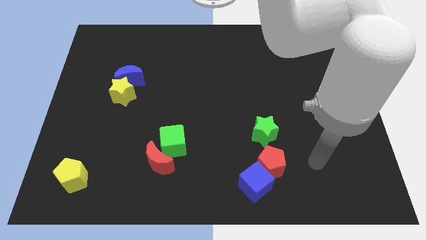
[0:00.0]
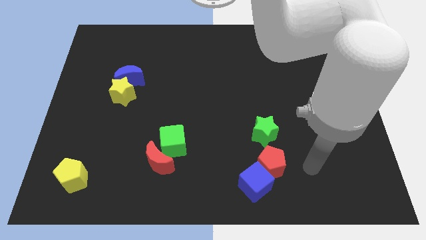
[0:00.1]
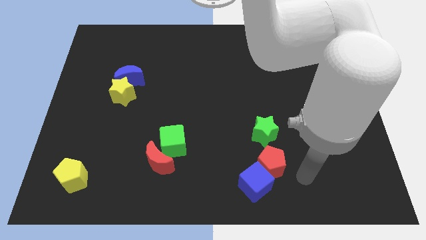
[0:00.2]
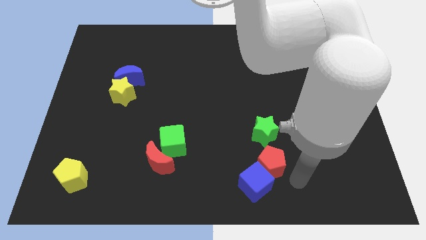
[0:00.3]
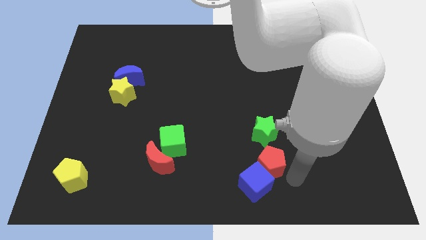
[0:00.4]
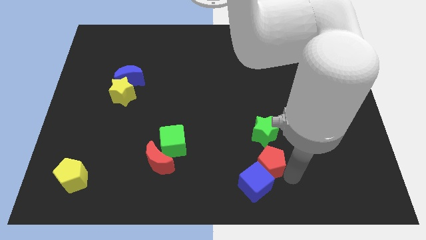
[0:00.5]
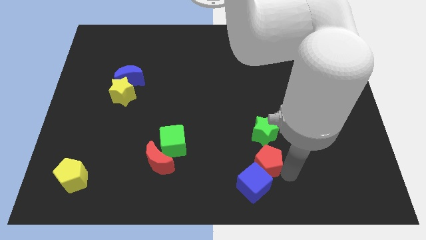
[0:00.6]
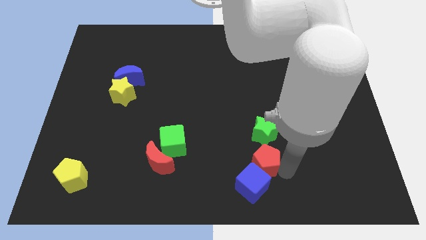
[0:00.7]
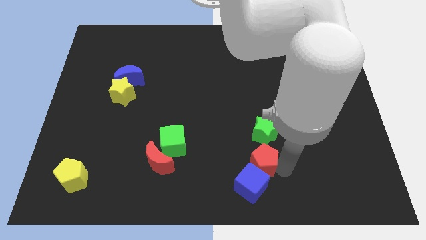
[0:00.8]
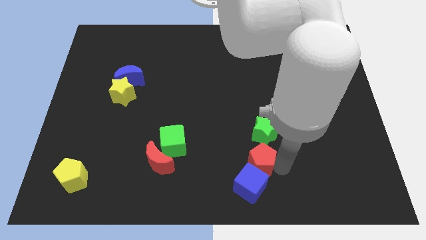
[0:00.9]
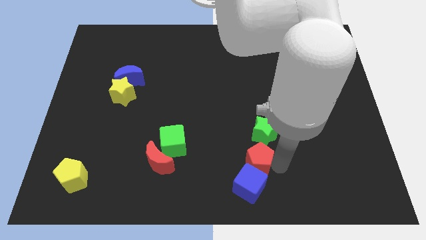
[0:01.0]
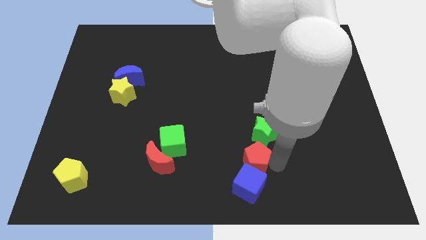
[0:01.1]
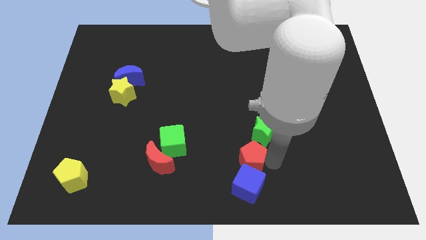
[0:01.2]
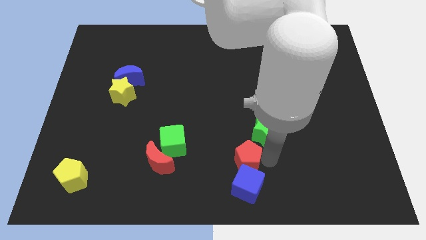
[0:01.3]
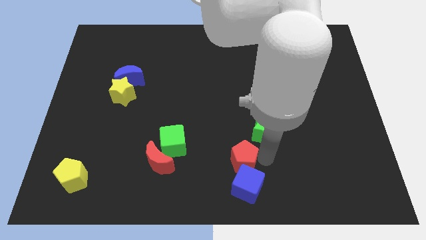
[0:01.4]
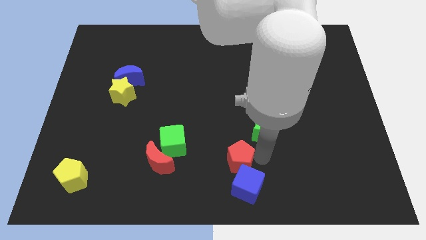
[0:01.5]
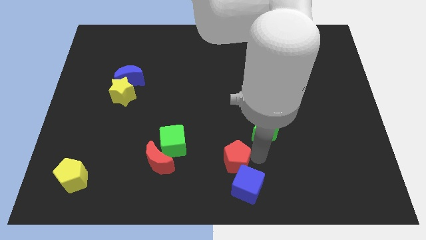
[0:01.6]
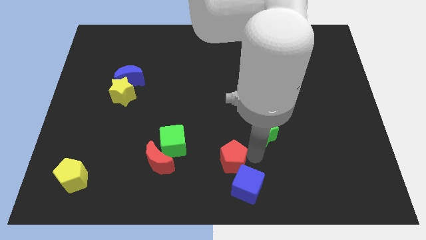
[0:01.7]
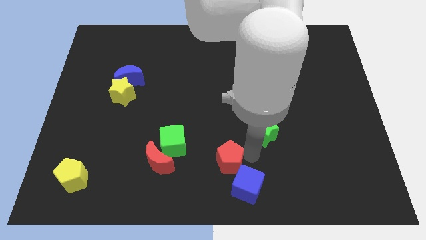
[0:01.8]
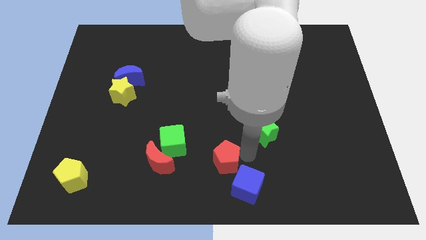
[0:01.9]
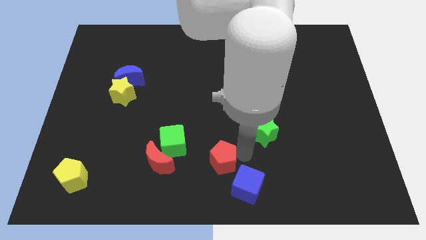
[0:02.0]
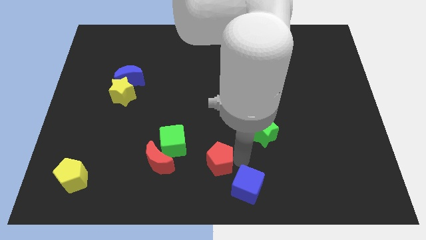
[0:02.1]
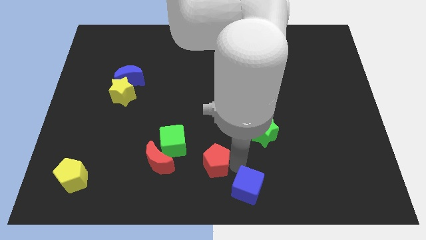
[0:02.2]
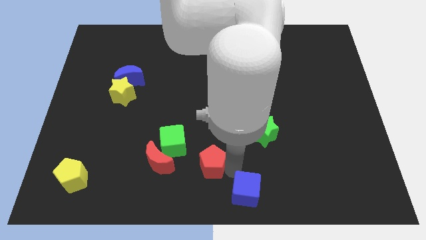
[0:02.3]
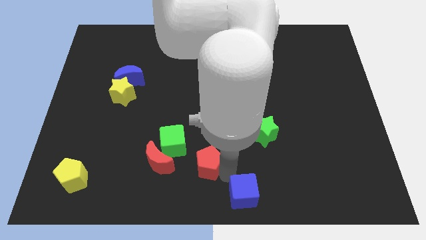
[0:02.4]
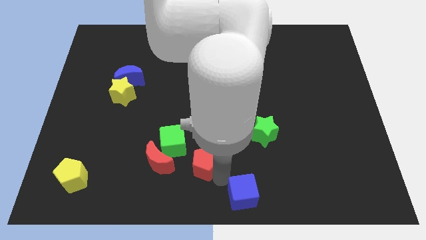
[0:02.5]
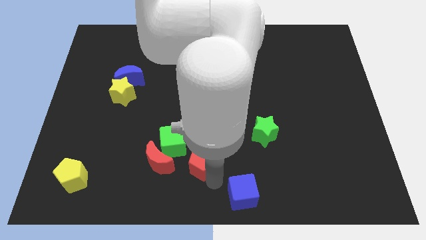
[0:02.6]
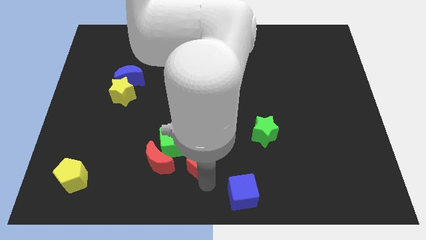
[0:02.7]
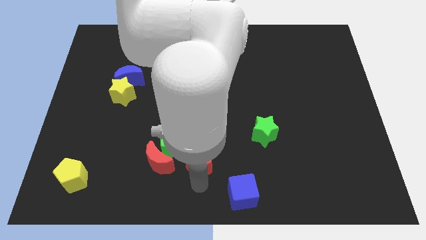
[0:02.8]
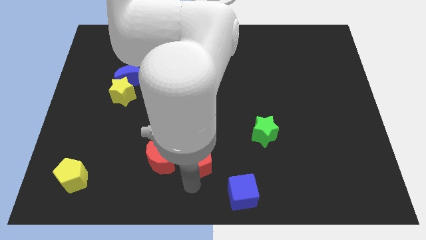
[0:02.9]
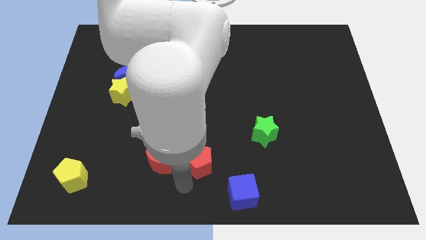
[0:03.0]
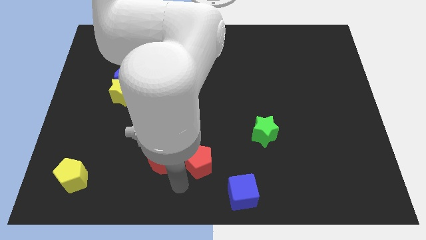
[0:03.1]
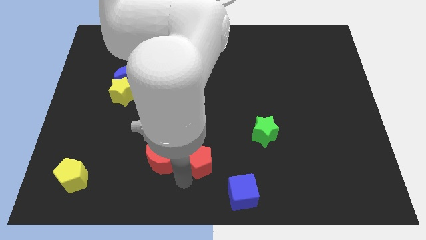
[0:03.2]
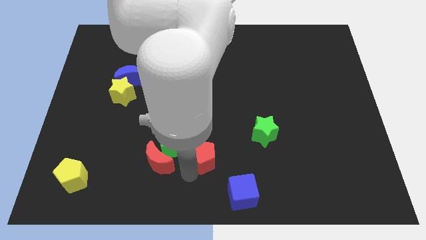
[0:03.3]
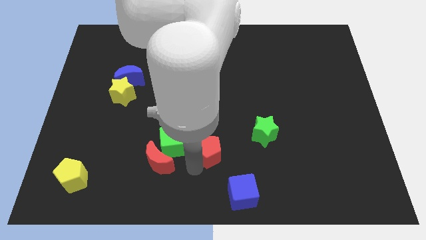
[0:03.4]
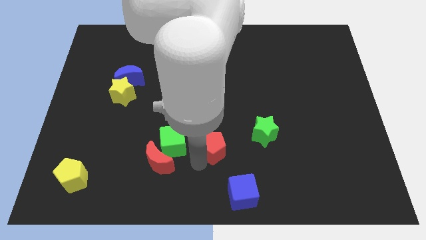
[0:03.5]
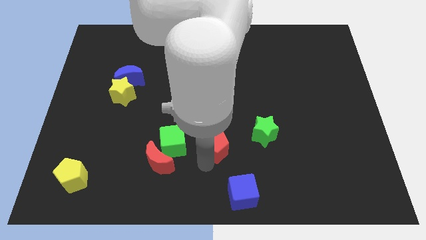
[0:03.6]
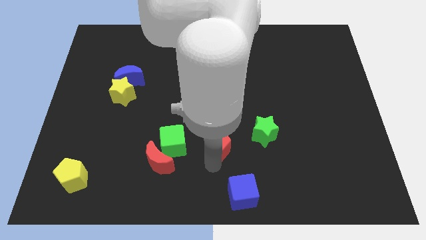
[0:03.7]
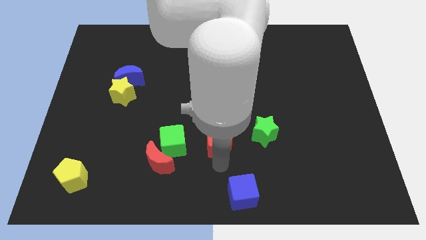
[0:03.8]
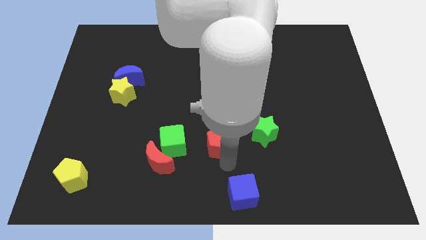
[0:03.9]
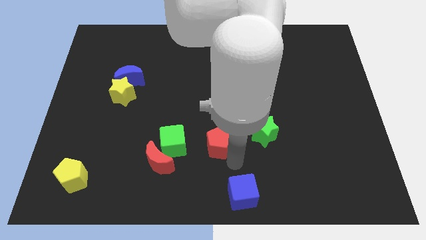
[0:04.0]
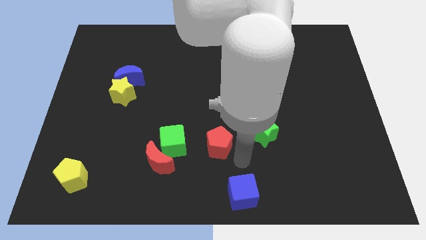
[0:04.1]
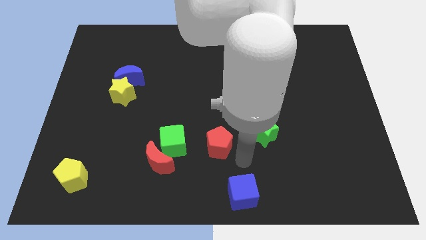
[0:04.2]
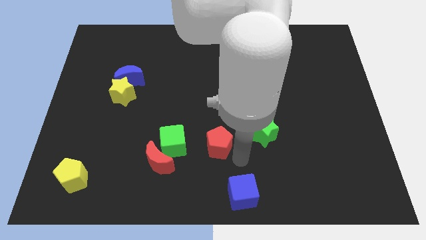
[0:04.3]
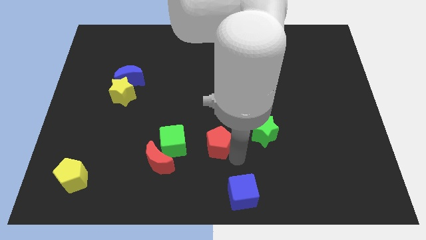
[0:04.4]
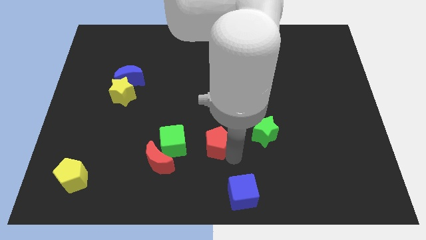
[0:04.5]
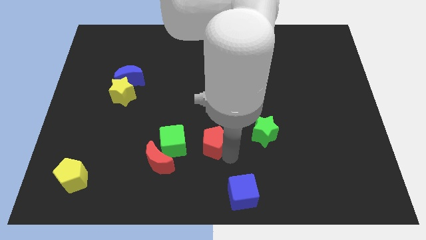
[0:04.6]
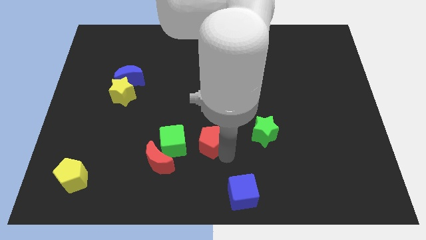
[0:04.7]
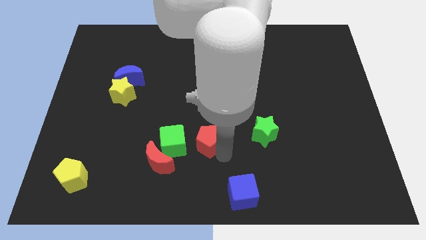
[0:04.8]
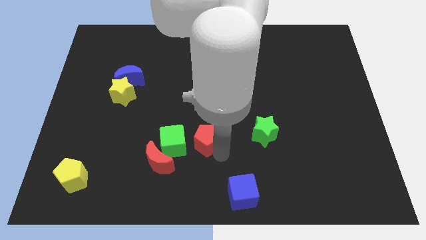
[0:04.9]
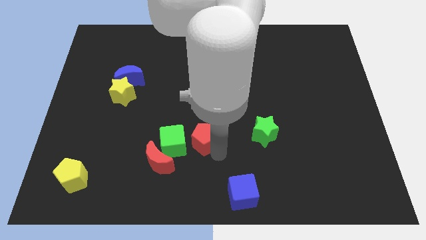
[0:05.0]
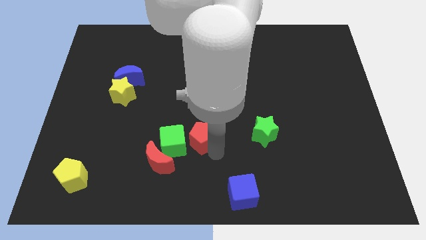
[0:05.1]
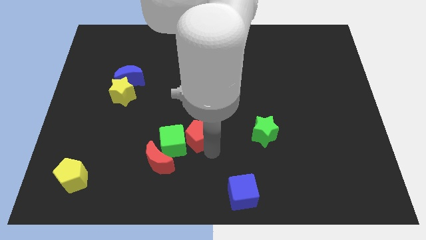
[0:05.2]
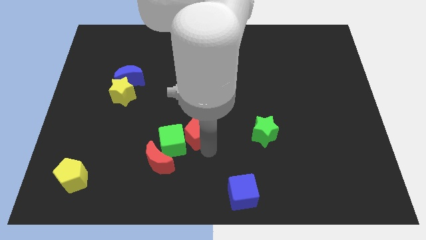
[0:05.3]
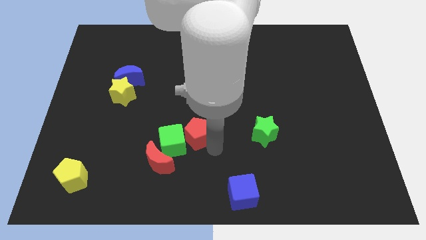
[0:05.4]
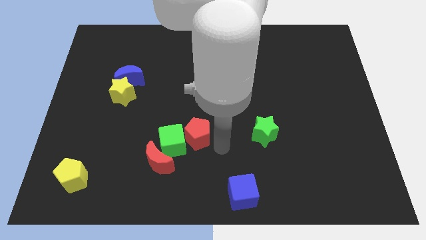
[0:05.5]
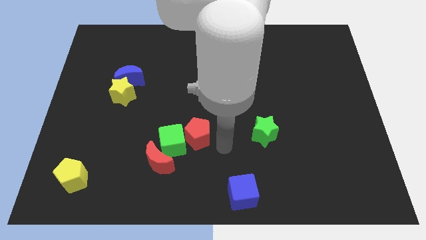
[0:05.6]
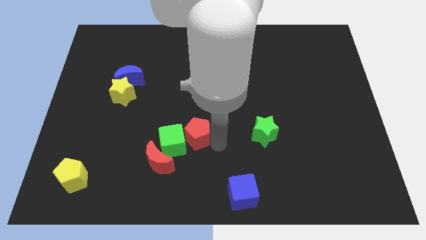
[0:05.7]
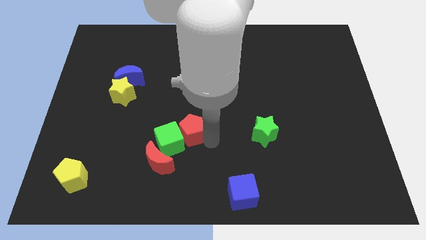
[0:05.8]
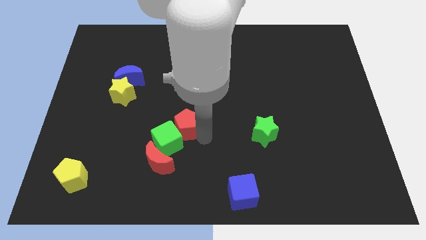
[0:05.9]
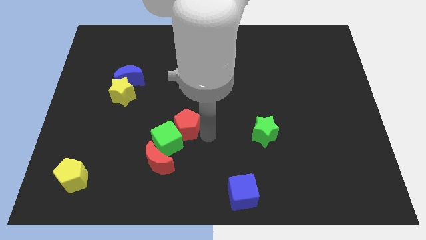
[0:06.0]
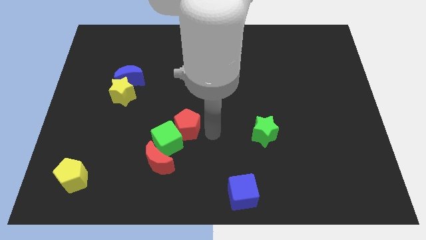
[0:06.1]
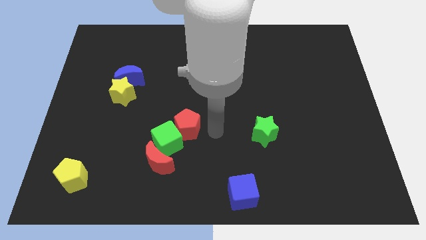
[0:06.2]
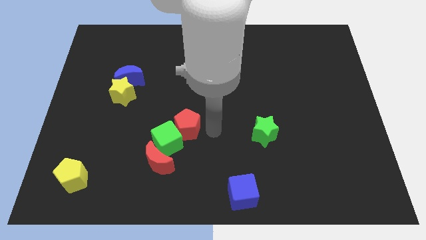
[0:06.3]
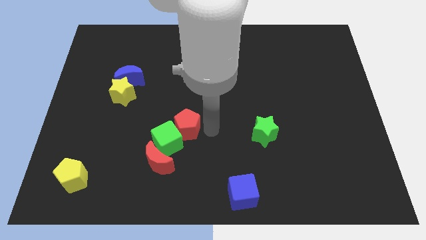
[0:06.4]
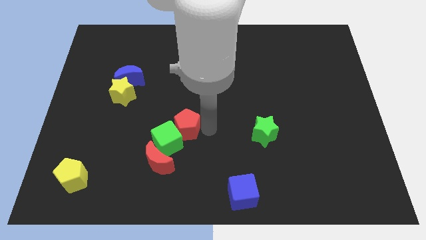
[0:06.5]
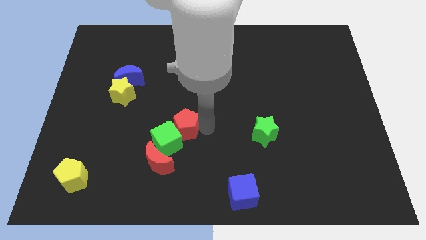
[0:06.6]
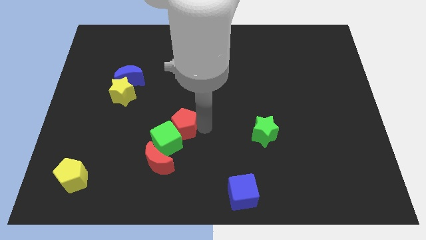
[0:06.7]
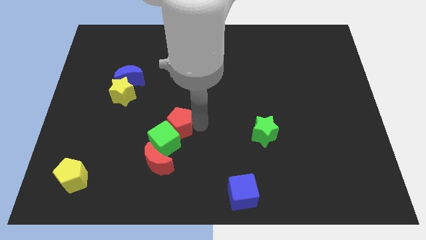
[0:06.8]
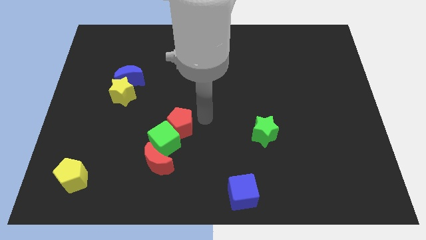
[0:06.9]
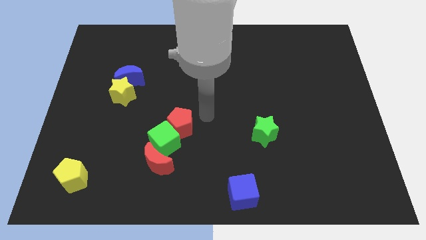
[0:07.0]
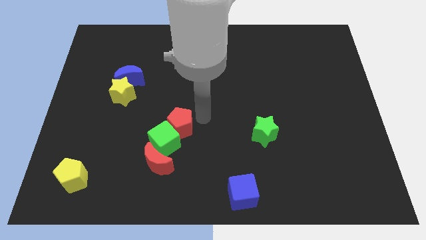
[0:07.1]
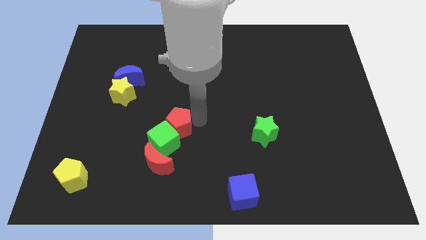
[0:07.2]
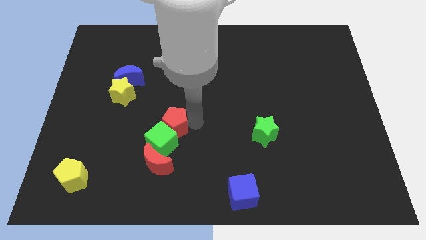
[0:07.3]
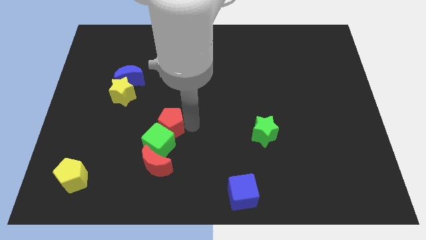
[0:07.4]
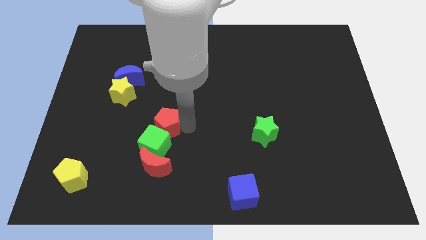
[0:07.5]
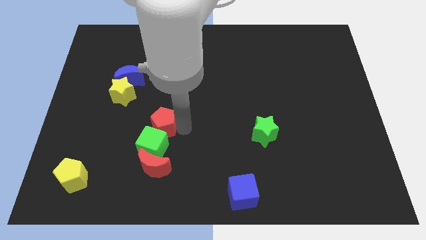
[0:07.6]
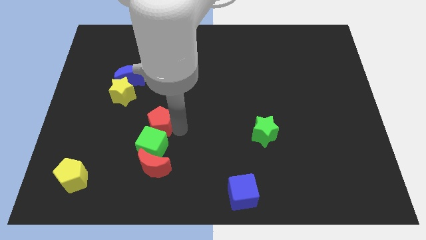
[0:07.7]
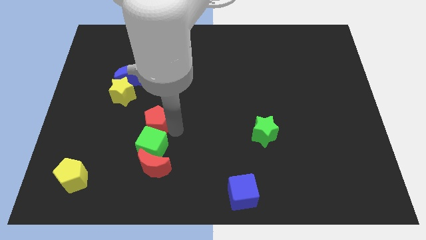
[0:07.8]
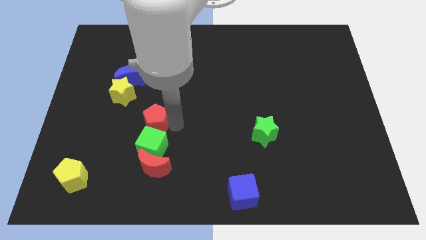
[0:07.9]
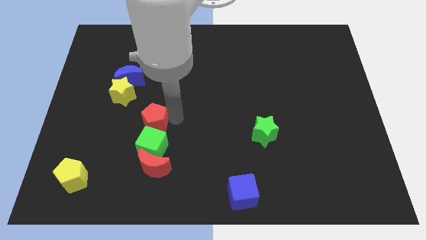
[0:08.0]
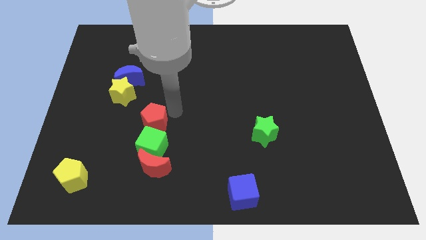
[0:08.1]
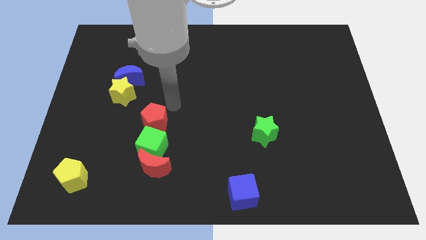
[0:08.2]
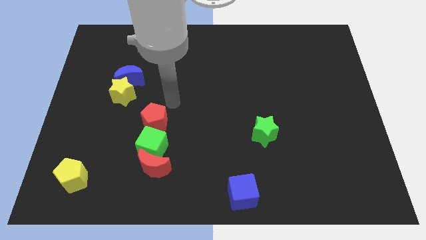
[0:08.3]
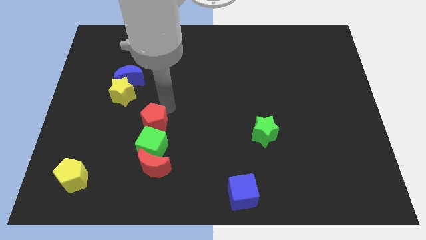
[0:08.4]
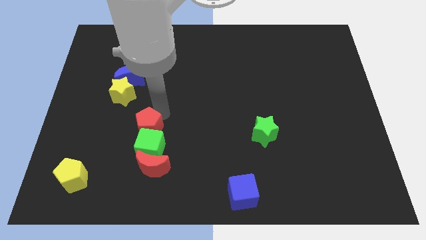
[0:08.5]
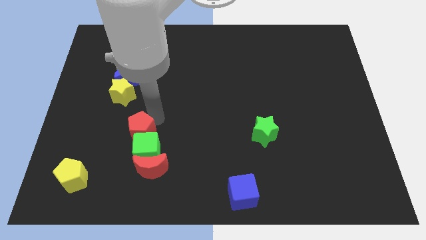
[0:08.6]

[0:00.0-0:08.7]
push the red pentagon to the top left side of the red moon
